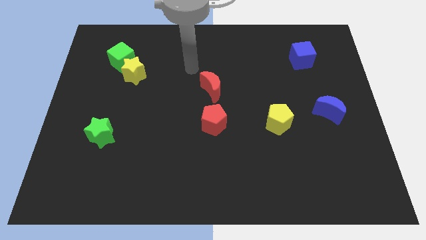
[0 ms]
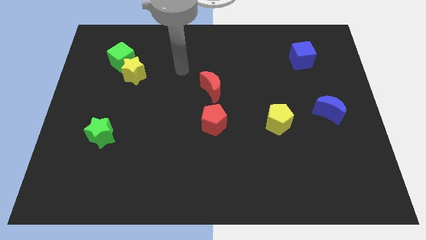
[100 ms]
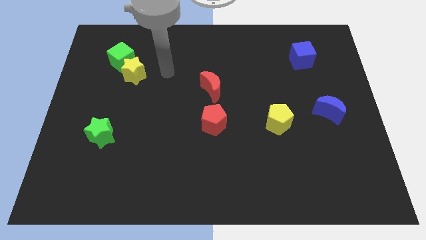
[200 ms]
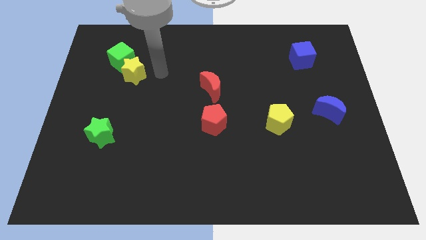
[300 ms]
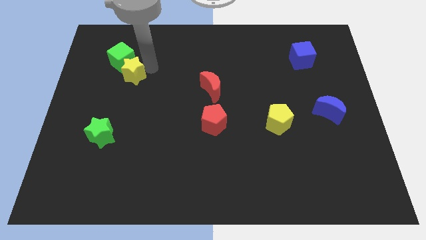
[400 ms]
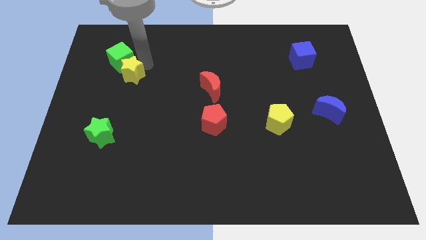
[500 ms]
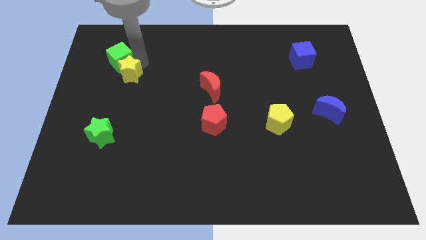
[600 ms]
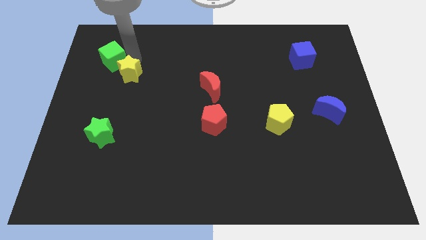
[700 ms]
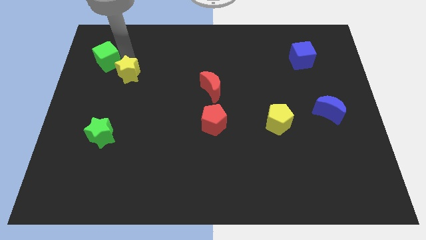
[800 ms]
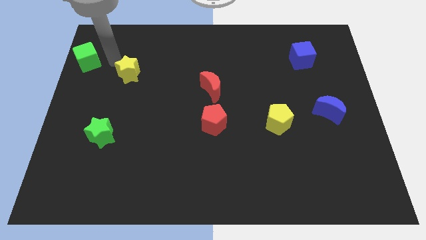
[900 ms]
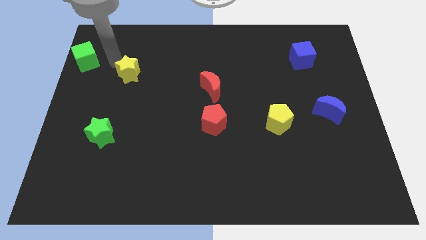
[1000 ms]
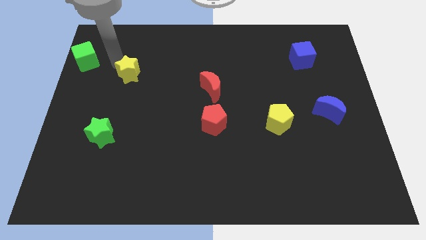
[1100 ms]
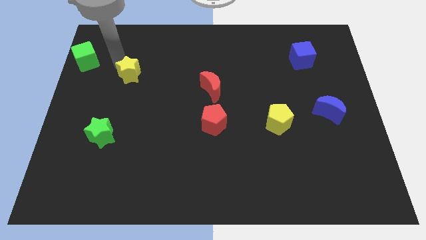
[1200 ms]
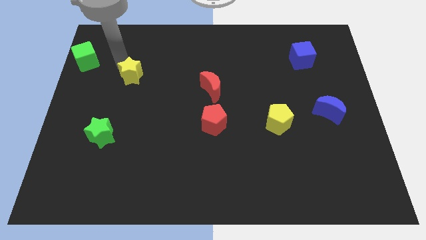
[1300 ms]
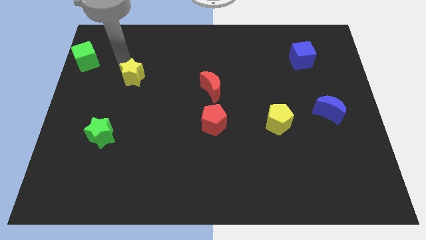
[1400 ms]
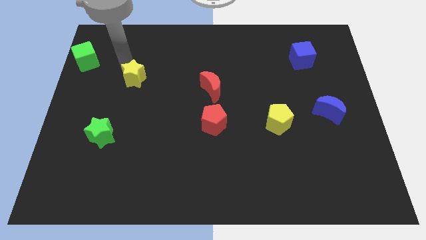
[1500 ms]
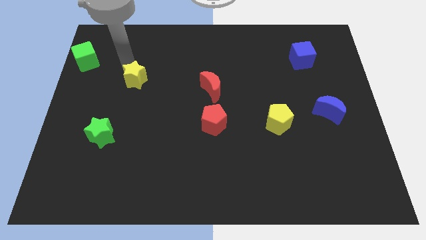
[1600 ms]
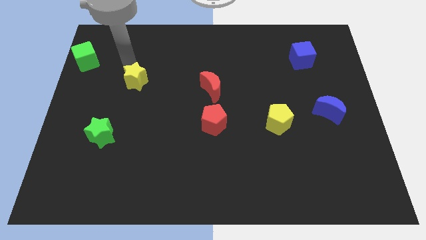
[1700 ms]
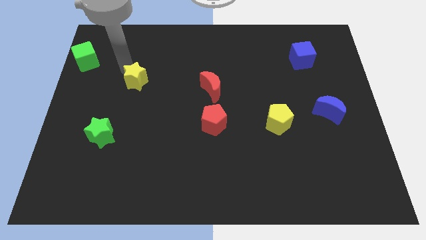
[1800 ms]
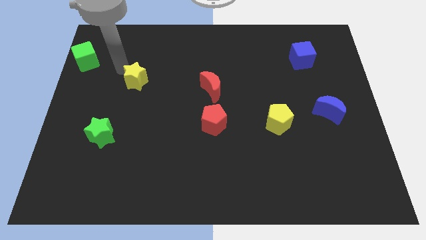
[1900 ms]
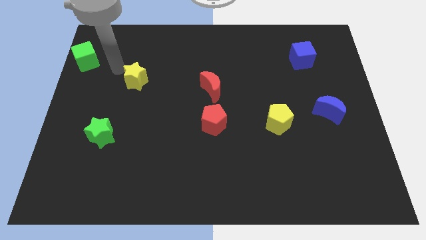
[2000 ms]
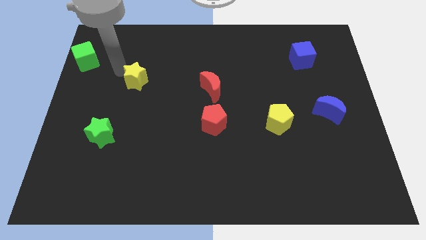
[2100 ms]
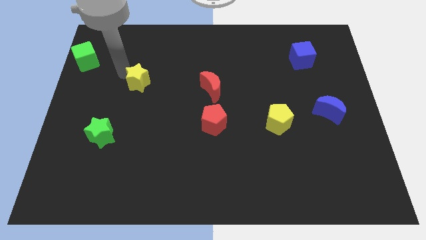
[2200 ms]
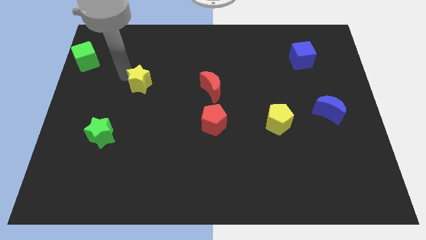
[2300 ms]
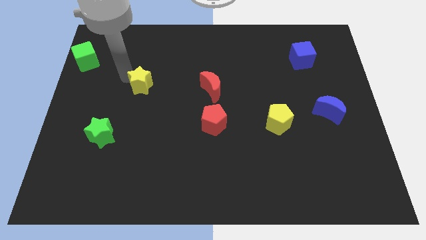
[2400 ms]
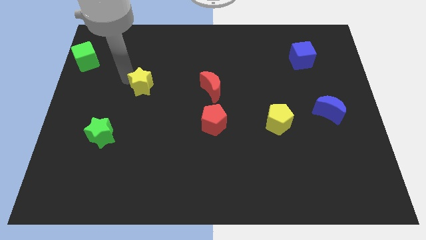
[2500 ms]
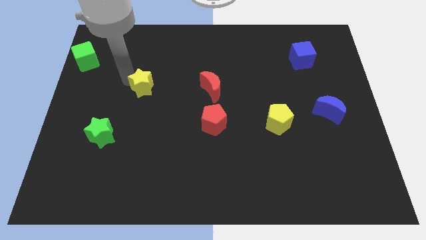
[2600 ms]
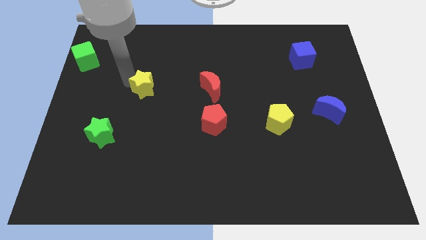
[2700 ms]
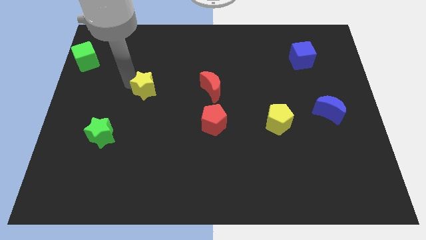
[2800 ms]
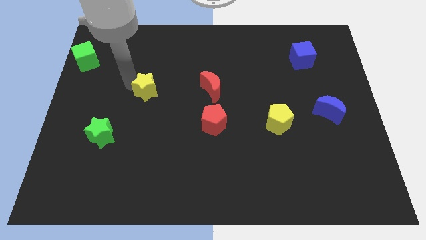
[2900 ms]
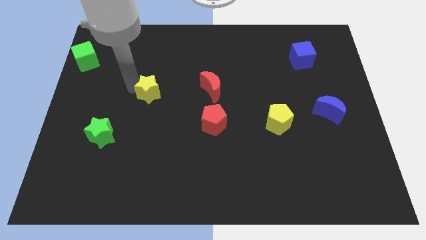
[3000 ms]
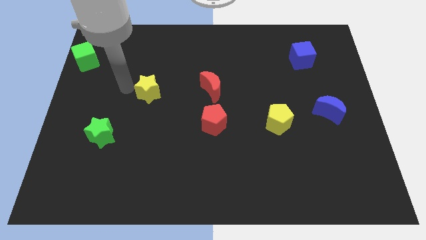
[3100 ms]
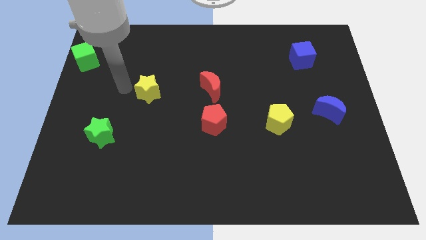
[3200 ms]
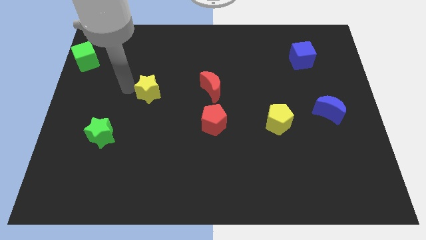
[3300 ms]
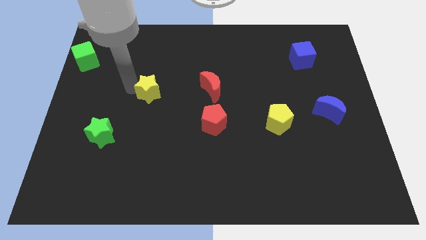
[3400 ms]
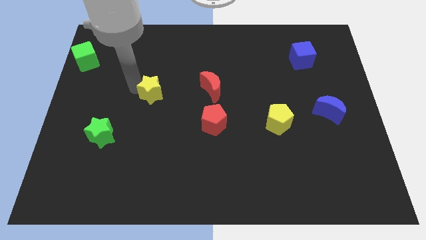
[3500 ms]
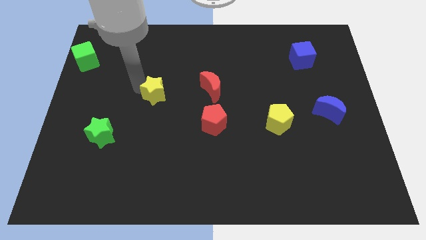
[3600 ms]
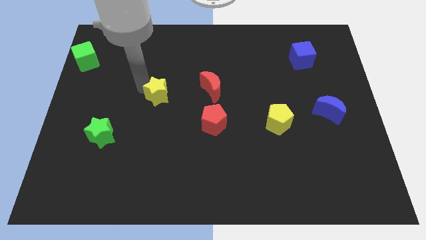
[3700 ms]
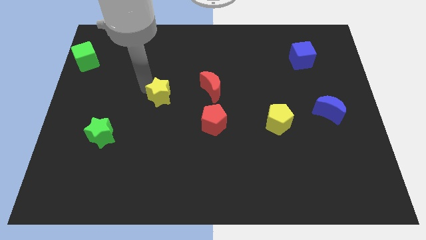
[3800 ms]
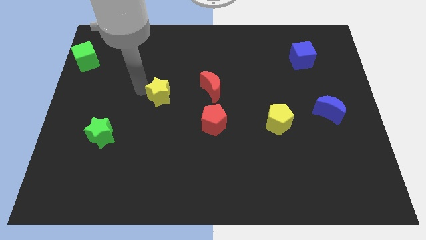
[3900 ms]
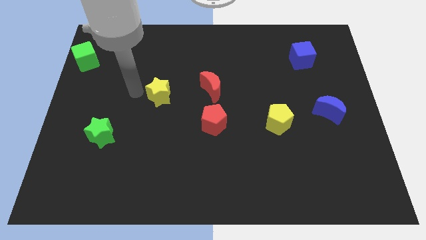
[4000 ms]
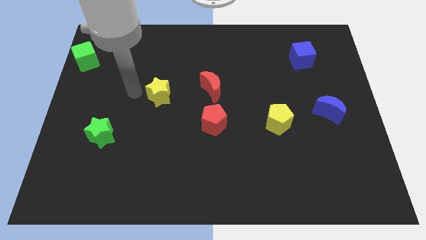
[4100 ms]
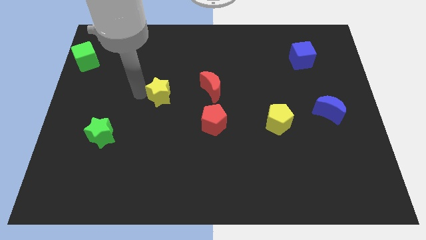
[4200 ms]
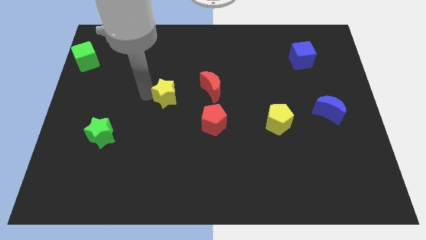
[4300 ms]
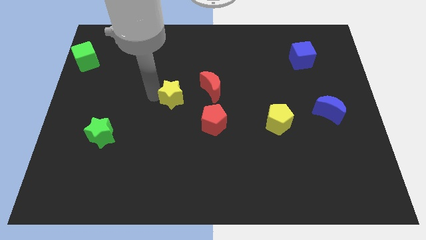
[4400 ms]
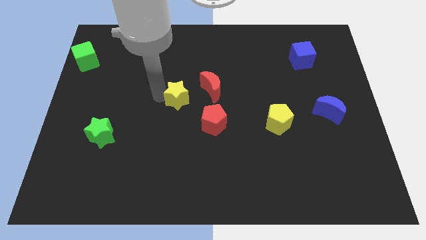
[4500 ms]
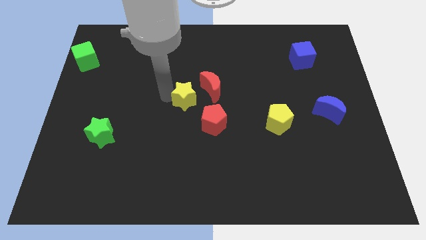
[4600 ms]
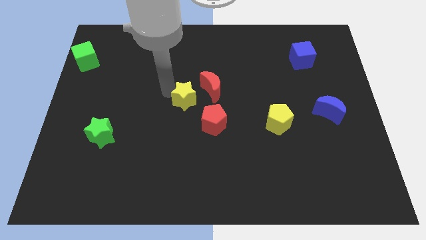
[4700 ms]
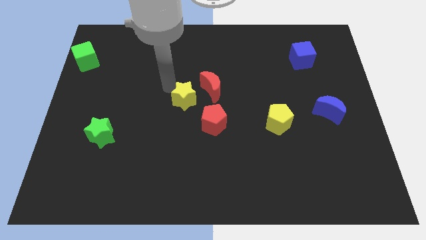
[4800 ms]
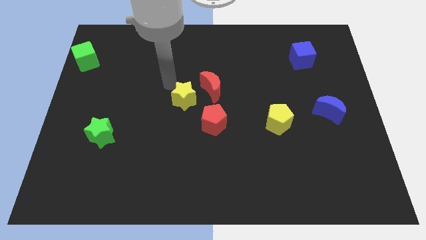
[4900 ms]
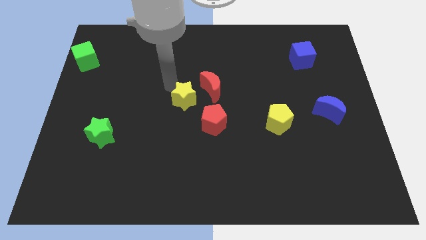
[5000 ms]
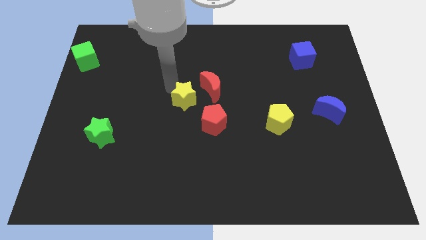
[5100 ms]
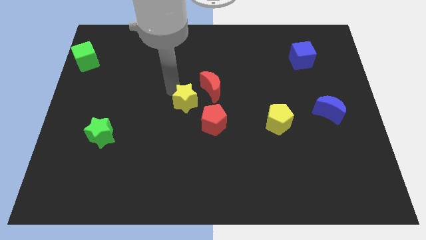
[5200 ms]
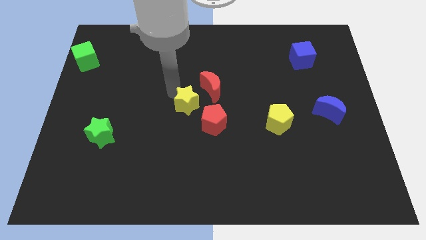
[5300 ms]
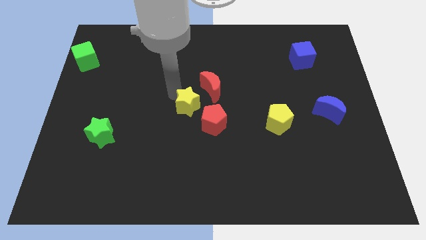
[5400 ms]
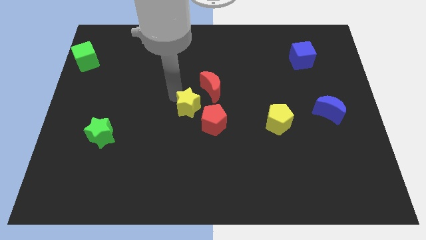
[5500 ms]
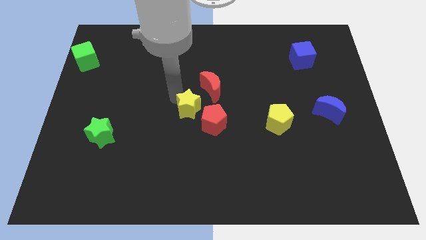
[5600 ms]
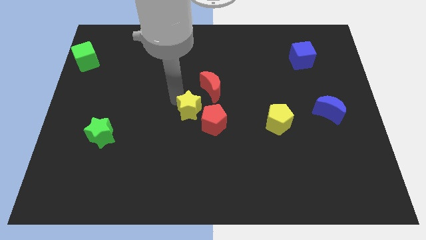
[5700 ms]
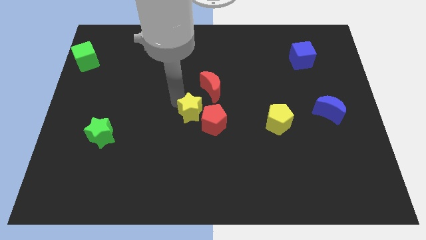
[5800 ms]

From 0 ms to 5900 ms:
put the yellow star to the red pentagon

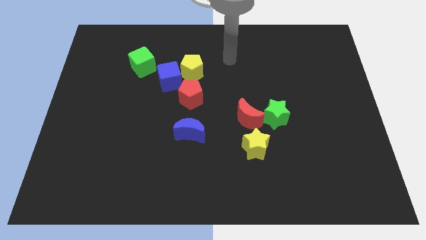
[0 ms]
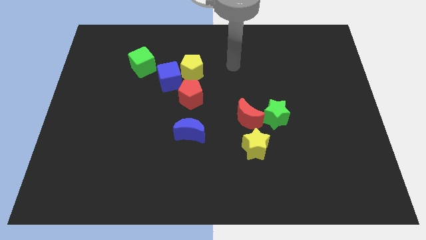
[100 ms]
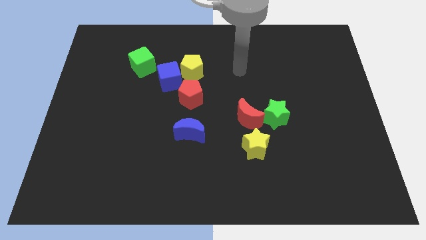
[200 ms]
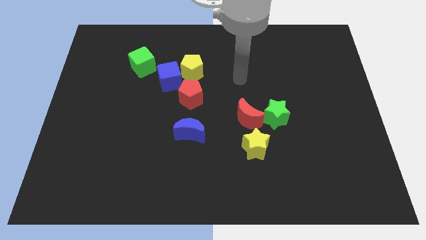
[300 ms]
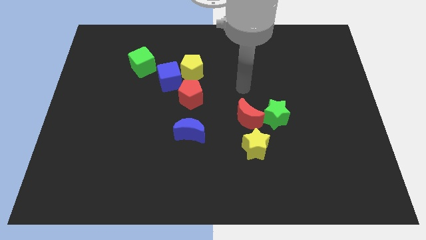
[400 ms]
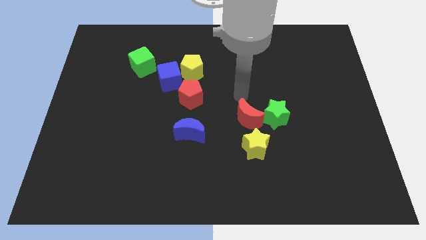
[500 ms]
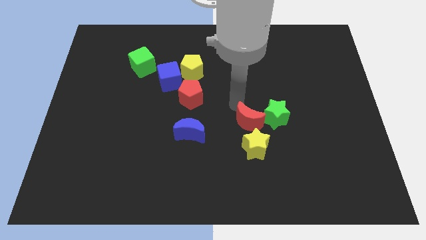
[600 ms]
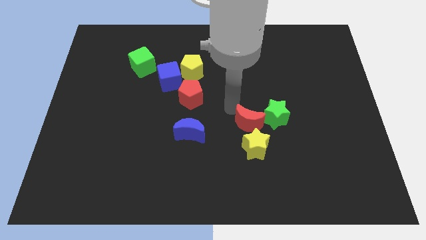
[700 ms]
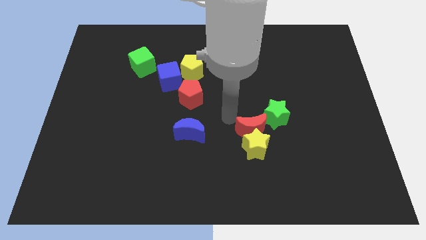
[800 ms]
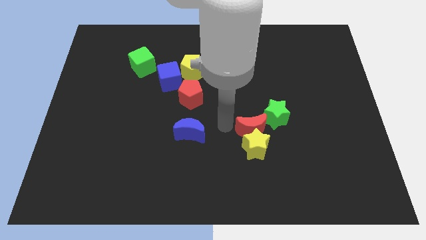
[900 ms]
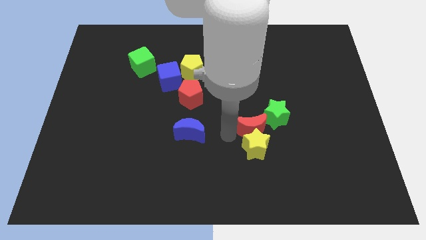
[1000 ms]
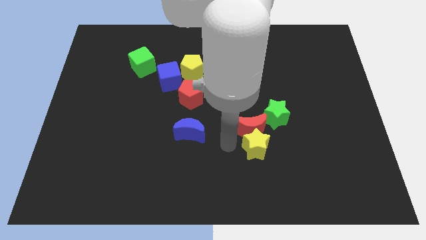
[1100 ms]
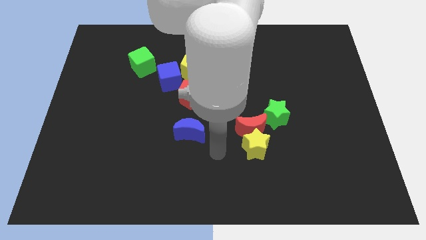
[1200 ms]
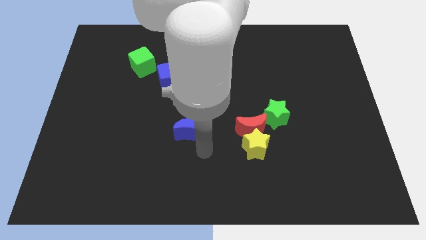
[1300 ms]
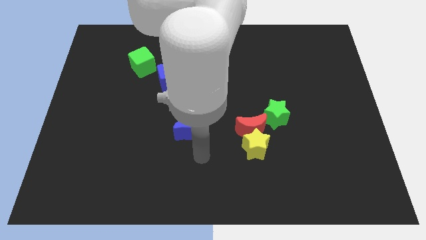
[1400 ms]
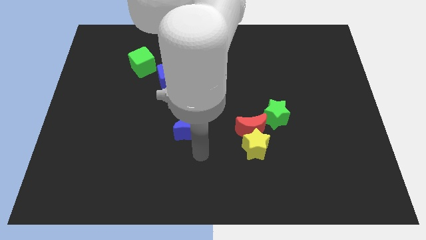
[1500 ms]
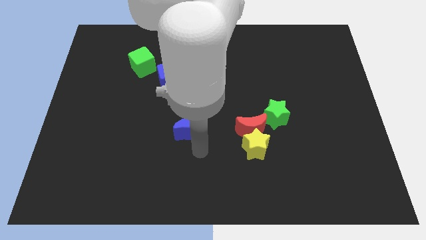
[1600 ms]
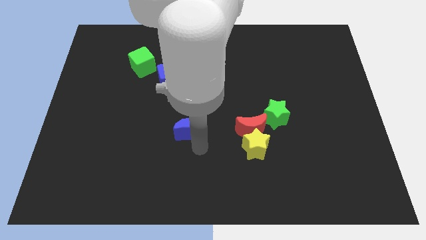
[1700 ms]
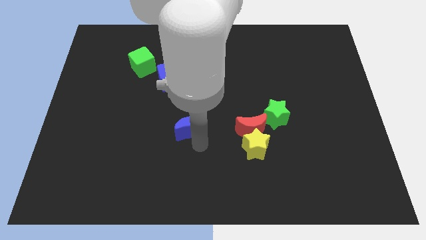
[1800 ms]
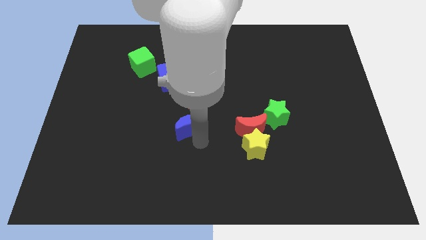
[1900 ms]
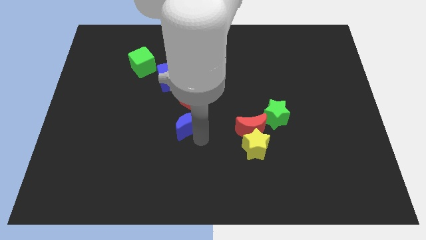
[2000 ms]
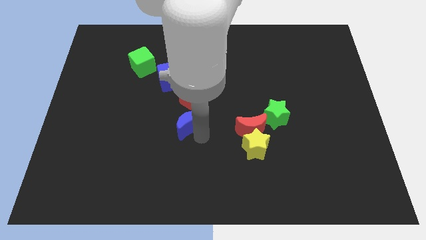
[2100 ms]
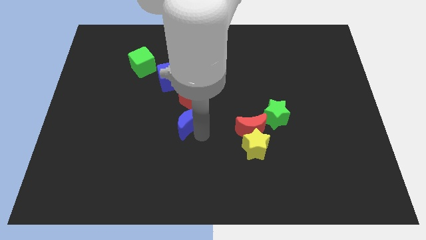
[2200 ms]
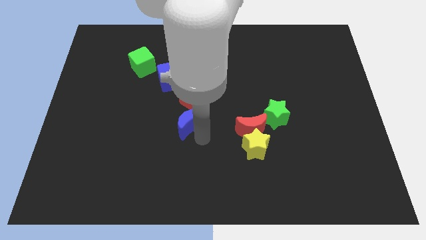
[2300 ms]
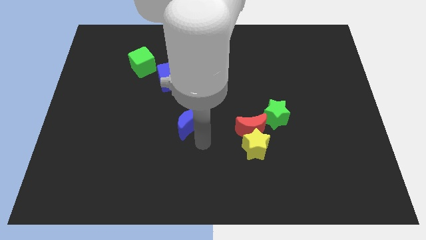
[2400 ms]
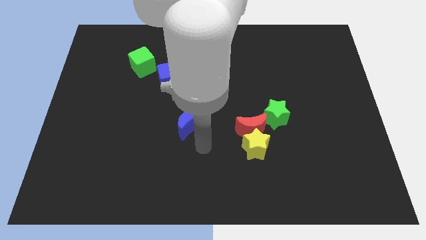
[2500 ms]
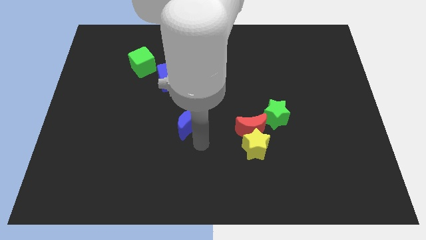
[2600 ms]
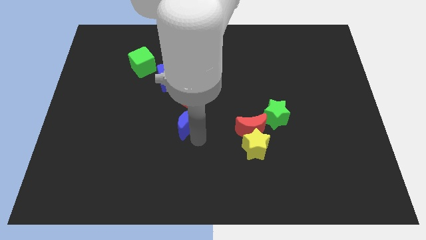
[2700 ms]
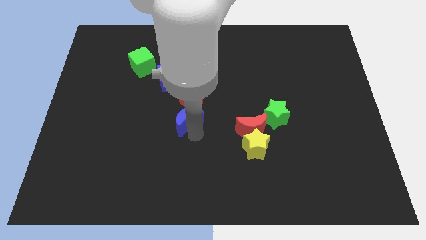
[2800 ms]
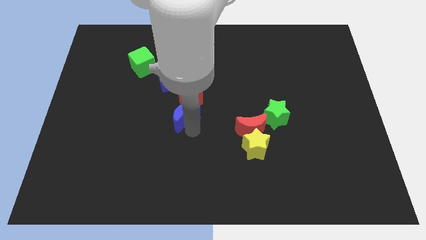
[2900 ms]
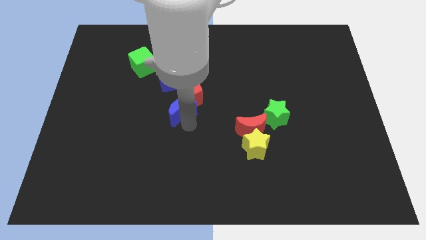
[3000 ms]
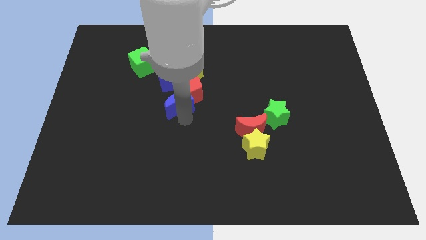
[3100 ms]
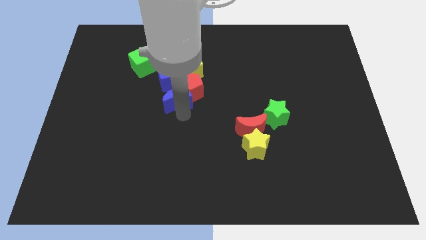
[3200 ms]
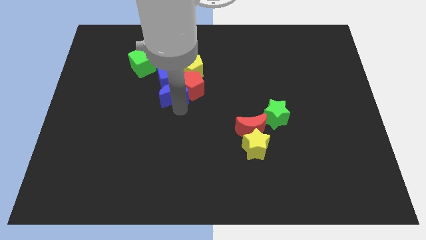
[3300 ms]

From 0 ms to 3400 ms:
slide the blue moon close to the blue cube
